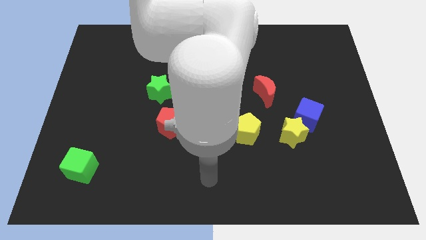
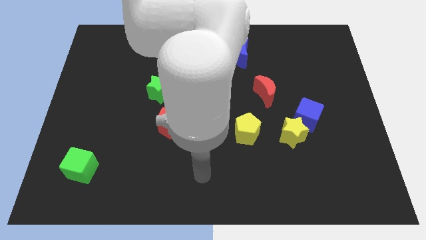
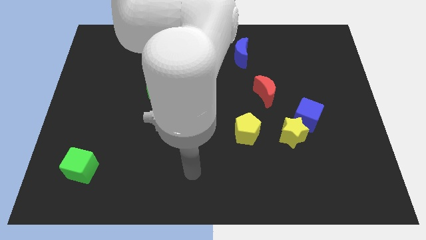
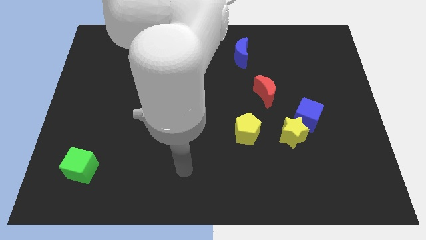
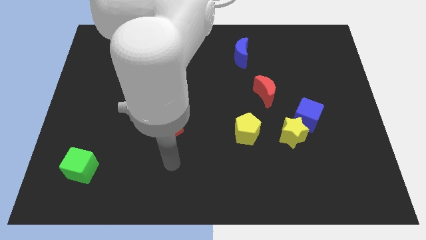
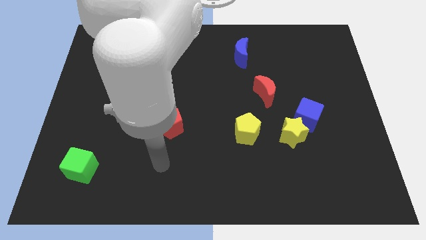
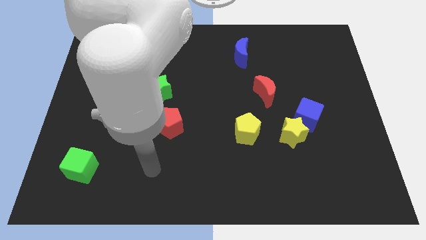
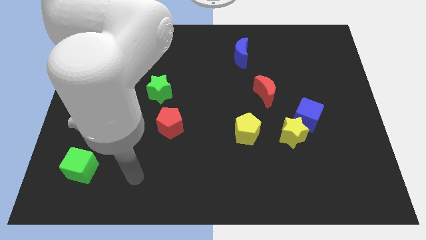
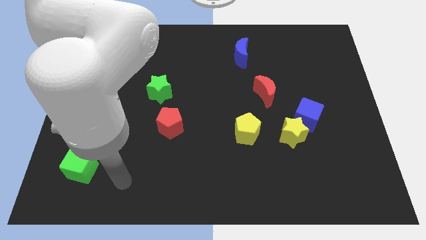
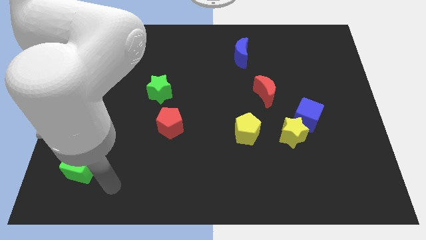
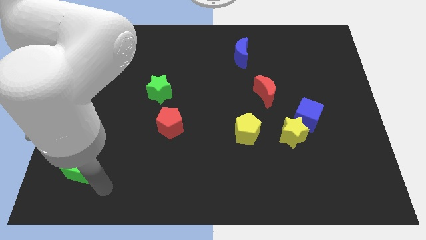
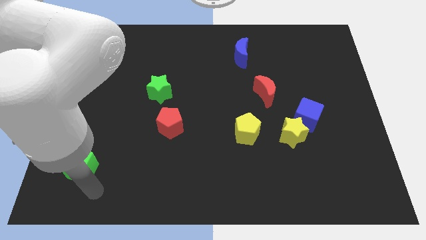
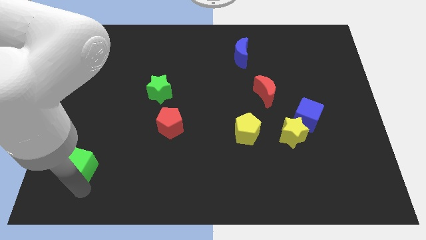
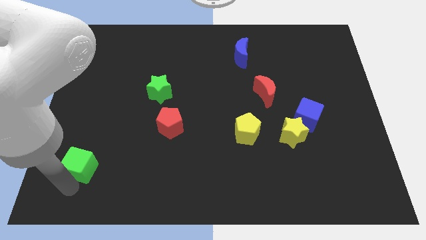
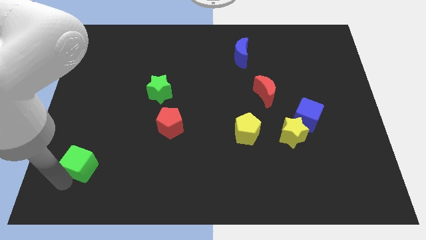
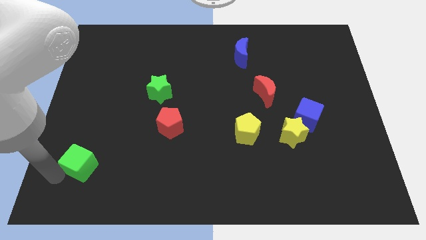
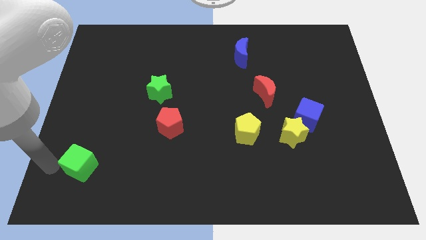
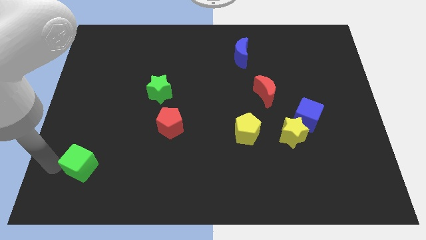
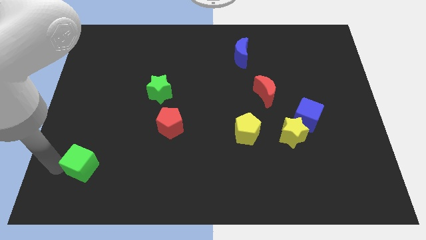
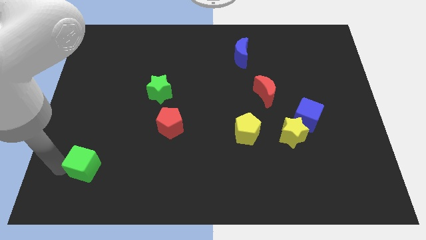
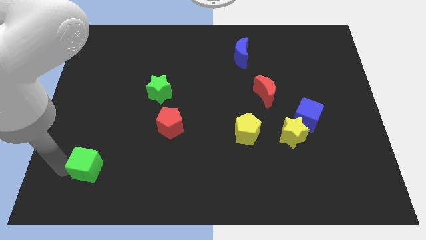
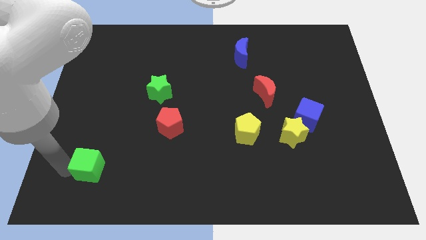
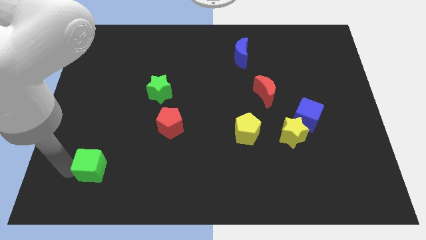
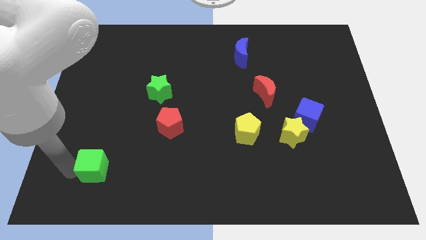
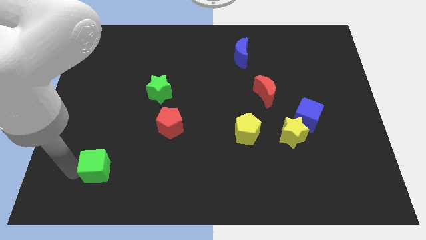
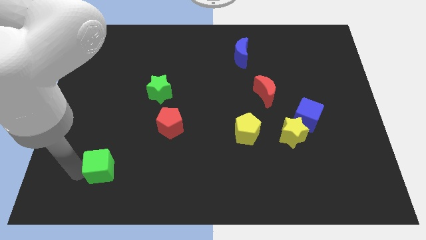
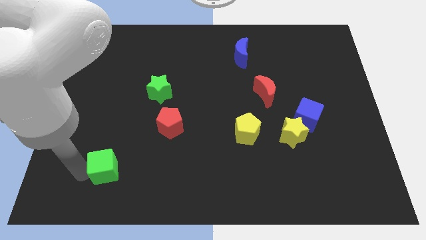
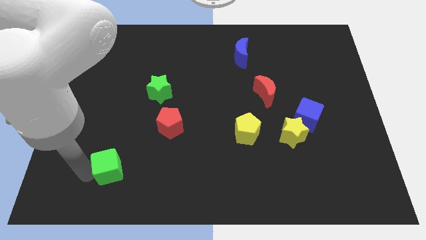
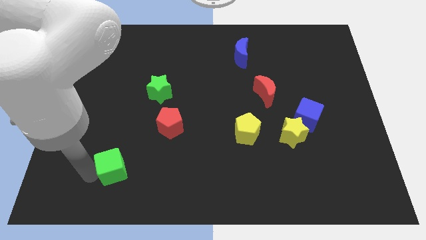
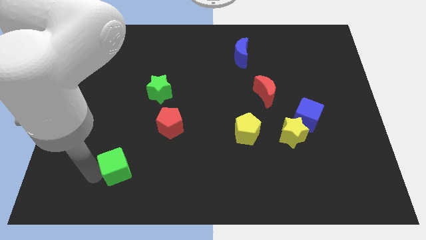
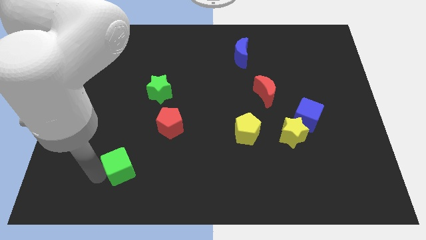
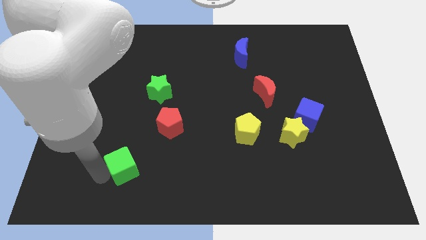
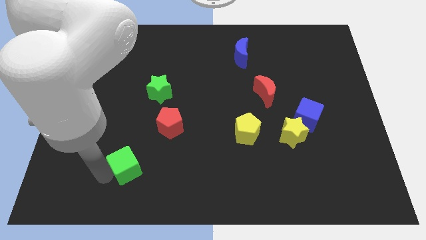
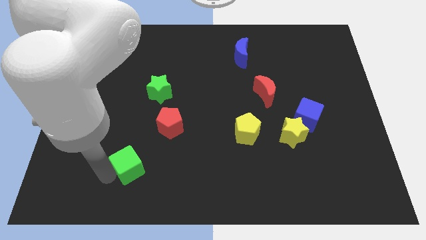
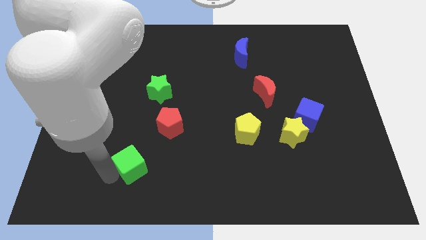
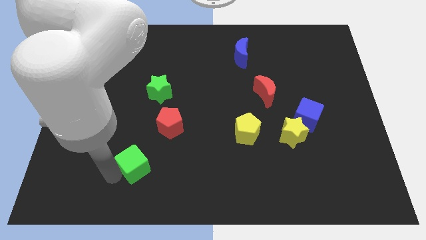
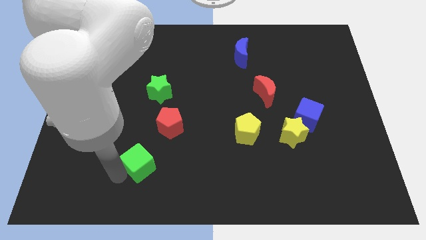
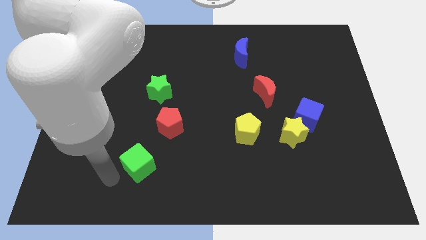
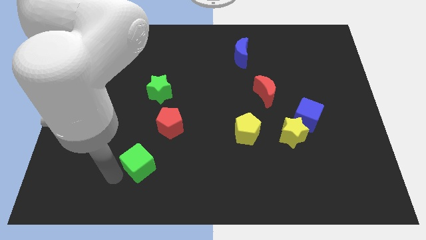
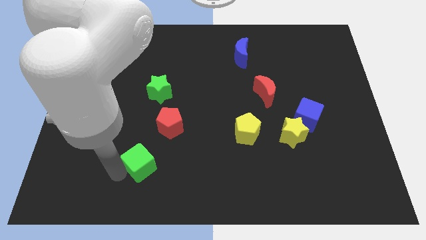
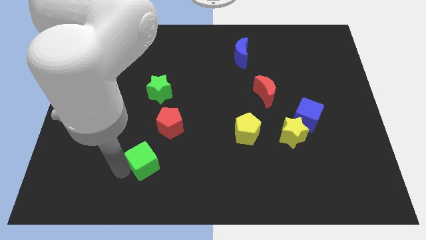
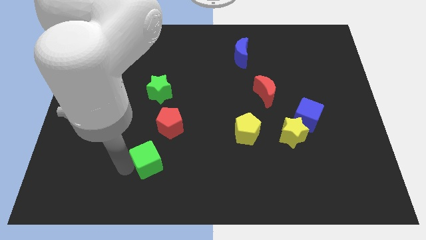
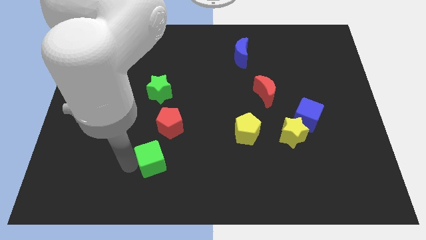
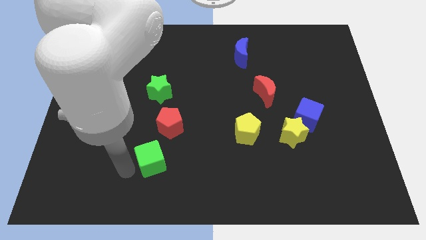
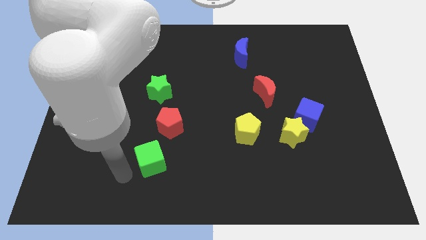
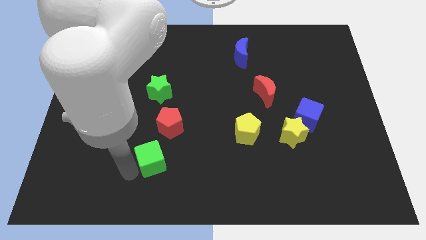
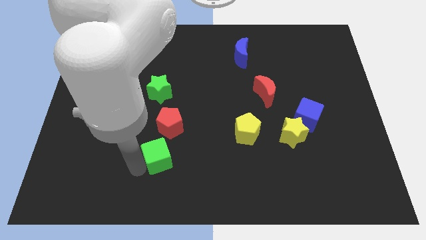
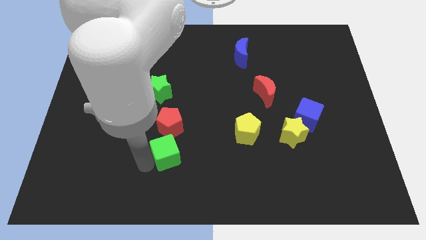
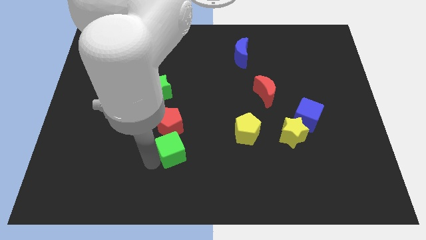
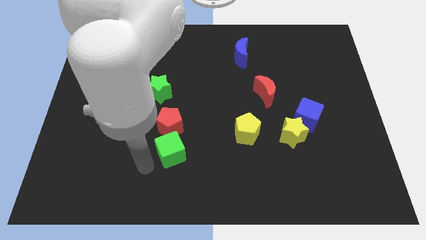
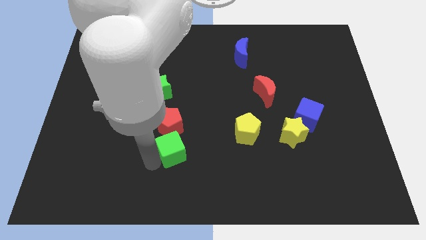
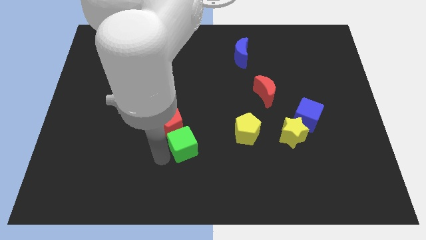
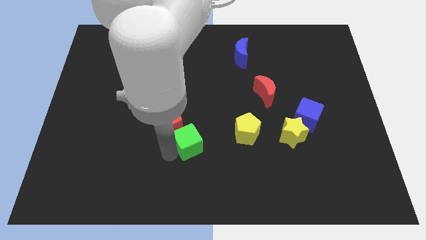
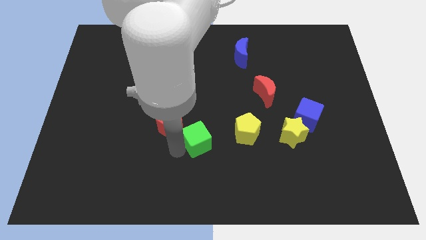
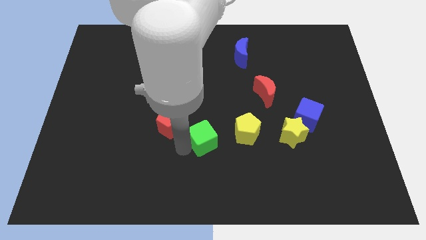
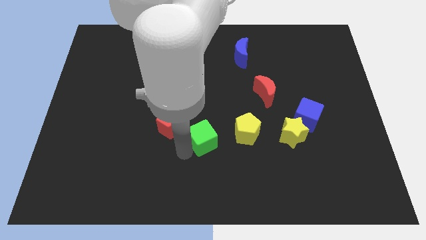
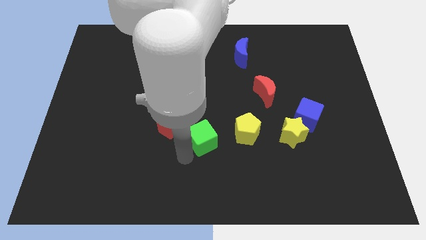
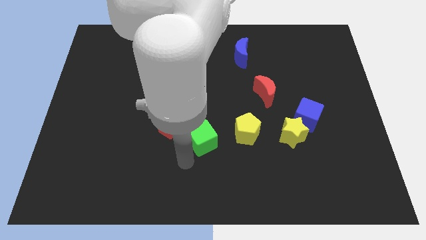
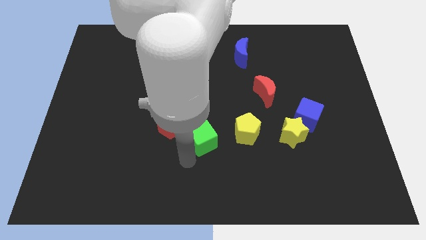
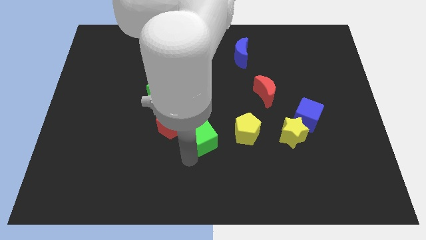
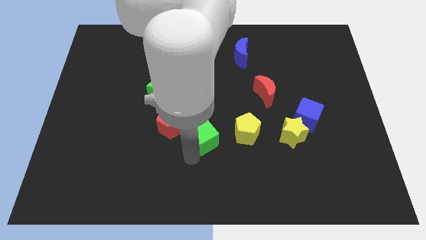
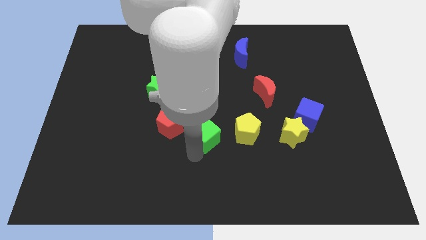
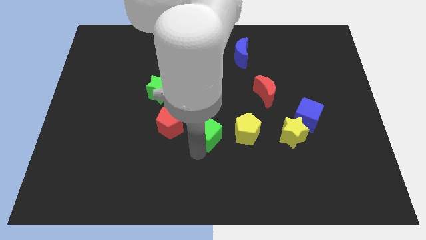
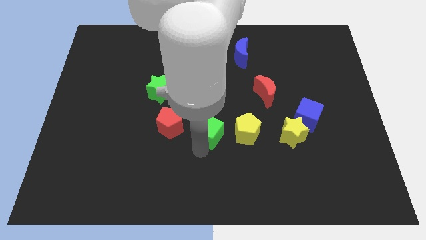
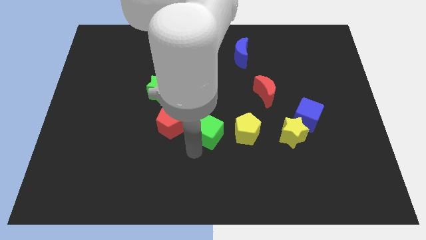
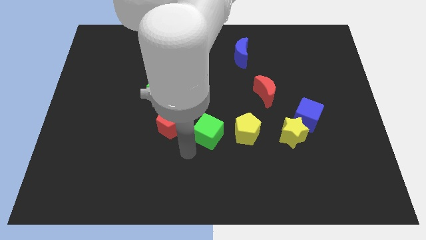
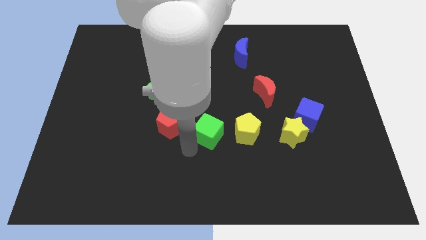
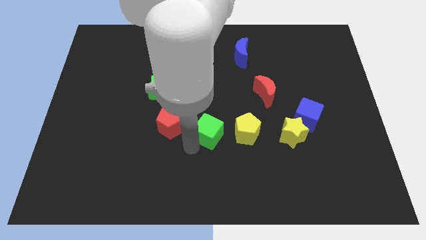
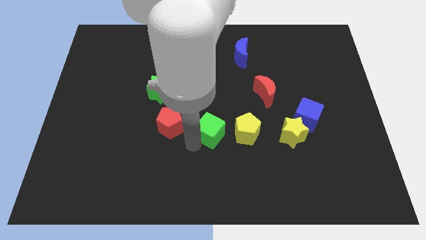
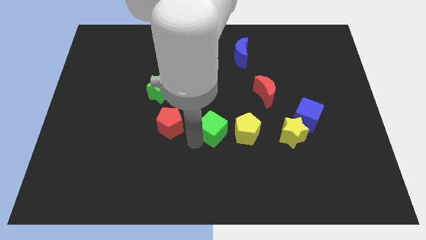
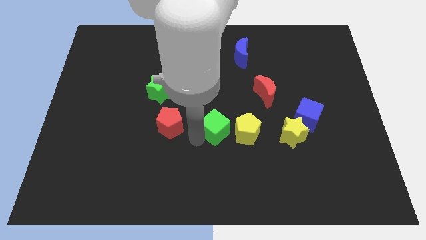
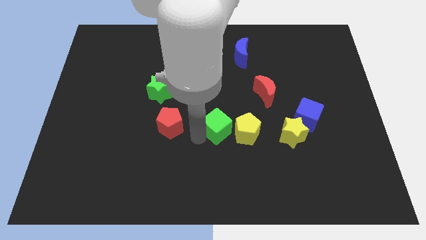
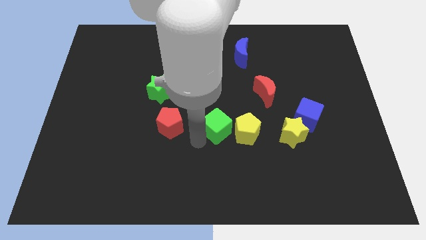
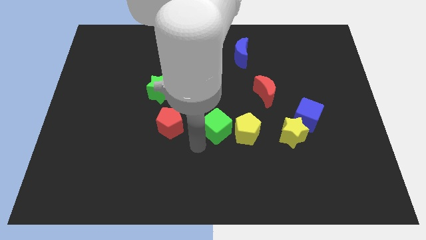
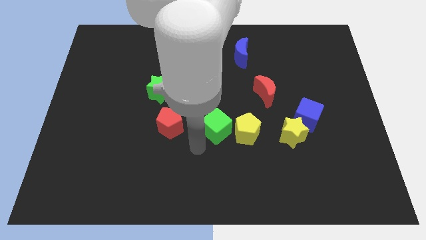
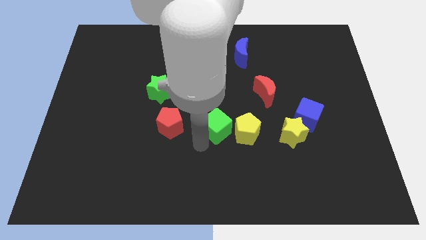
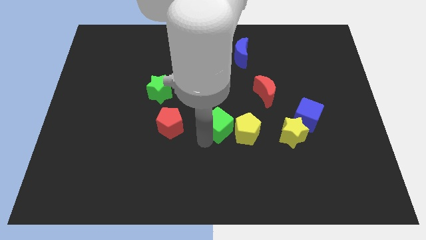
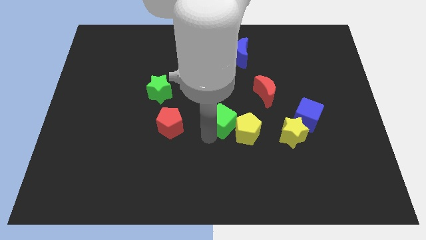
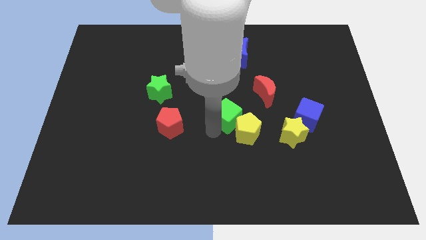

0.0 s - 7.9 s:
slide the green cube to the bottom left of the red moon
